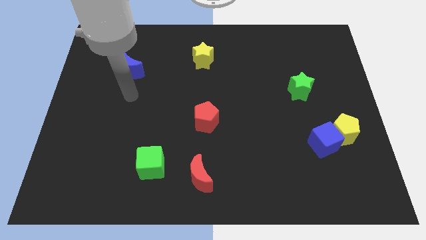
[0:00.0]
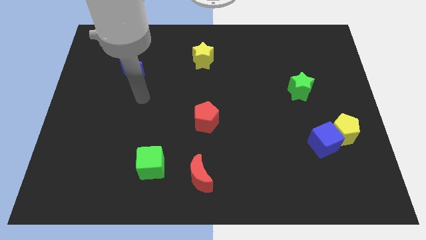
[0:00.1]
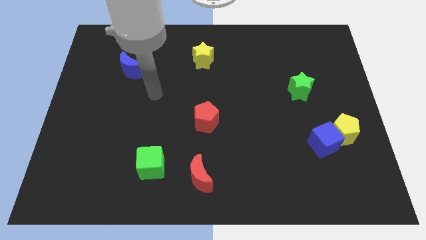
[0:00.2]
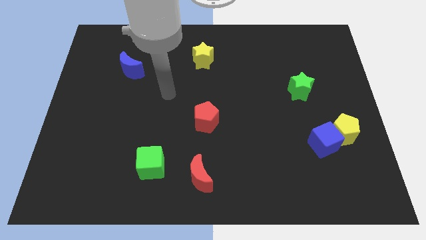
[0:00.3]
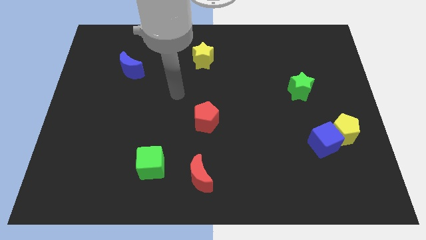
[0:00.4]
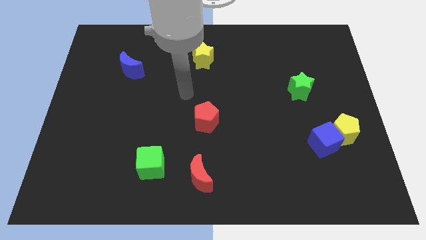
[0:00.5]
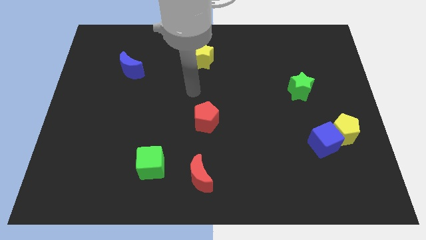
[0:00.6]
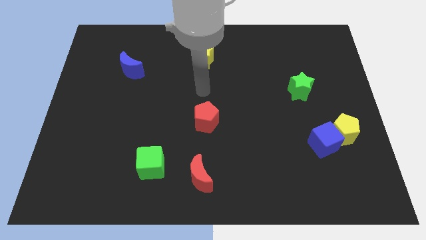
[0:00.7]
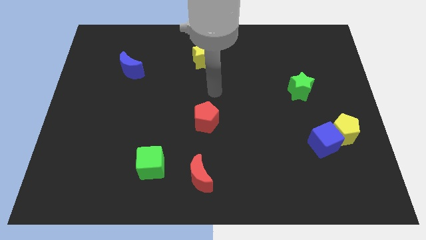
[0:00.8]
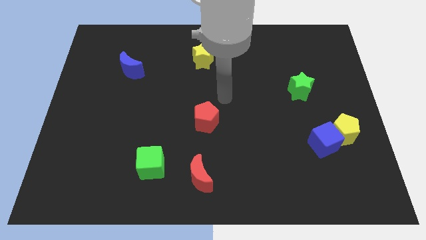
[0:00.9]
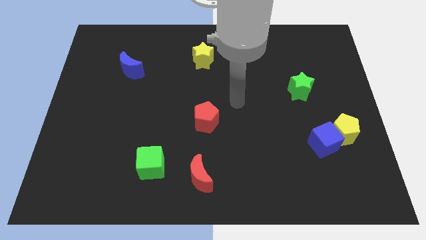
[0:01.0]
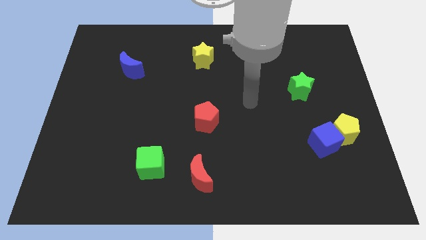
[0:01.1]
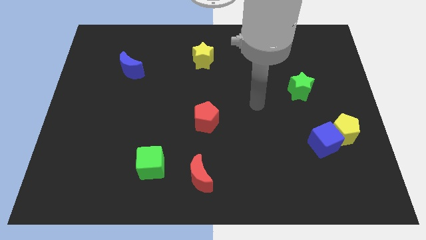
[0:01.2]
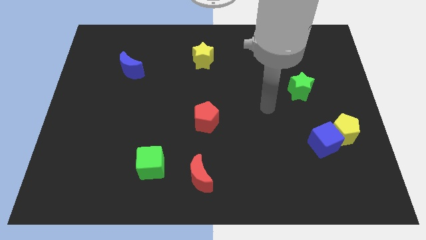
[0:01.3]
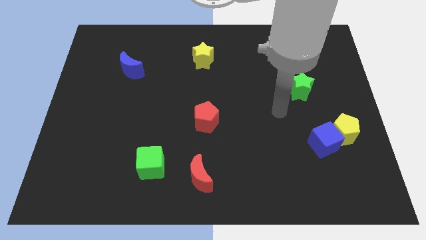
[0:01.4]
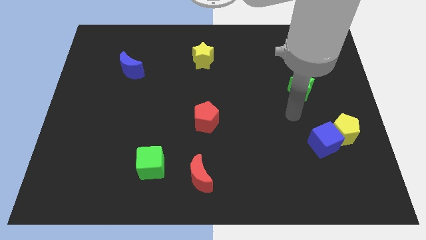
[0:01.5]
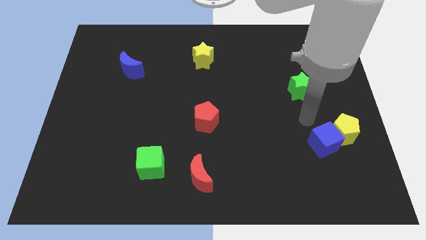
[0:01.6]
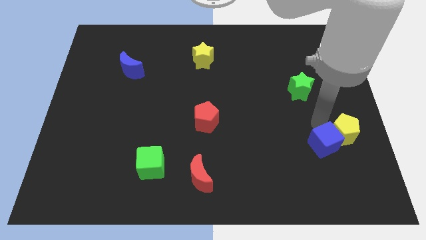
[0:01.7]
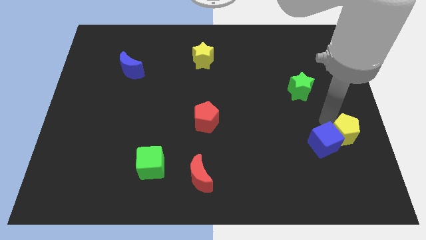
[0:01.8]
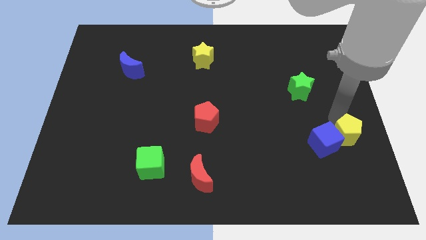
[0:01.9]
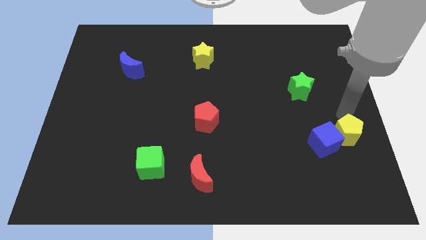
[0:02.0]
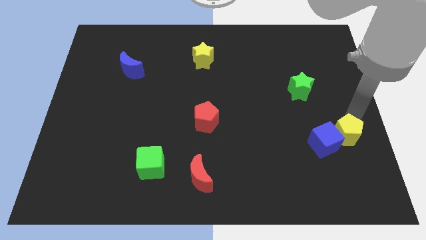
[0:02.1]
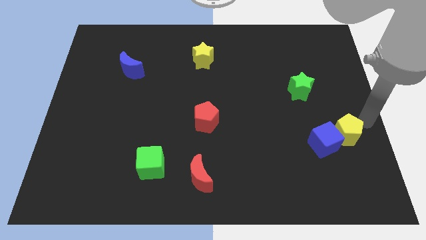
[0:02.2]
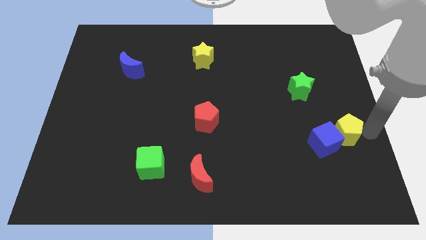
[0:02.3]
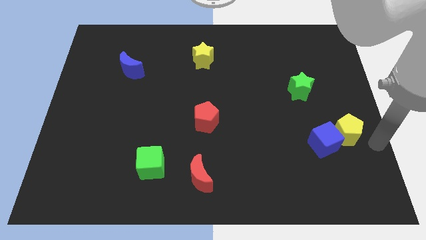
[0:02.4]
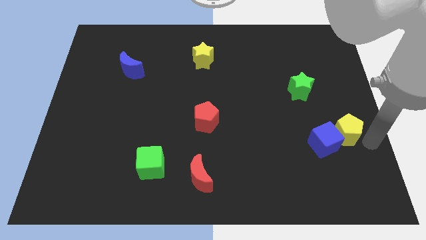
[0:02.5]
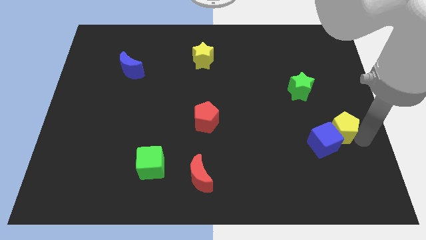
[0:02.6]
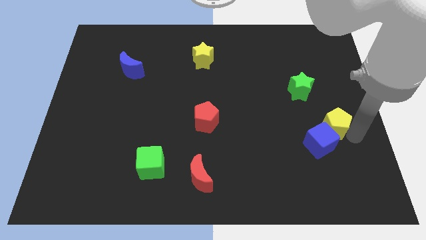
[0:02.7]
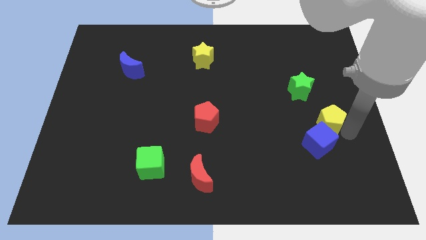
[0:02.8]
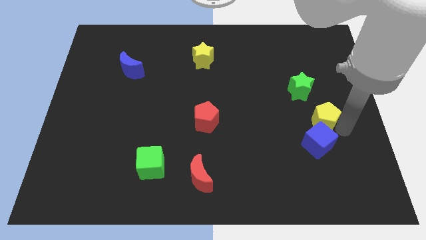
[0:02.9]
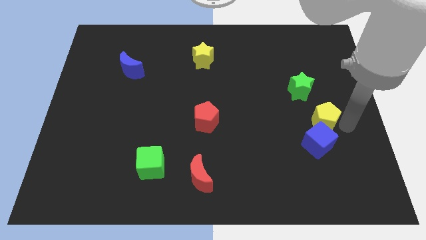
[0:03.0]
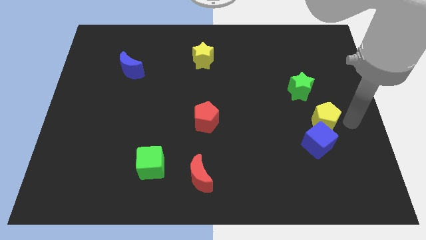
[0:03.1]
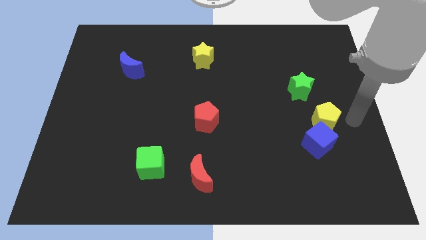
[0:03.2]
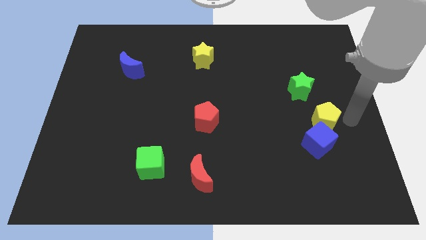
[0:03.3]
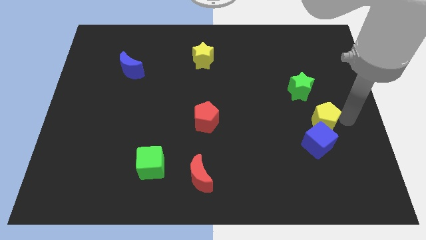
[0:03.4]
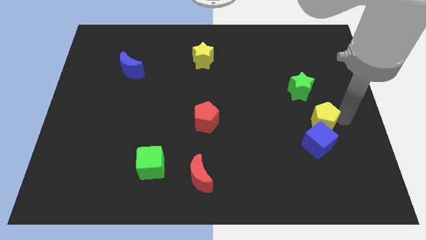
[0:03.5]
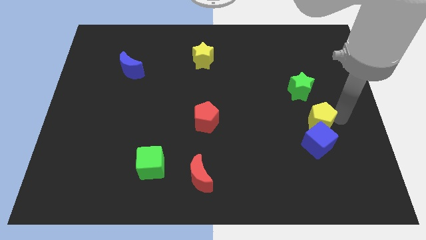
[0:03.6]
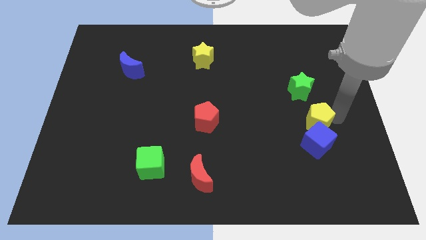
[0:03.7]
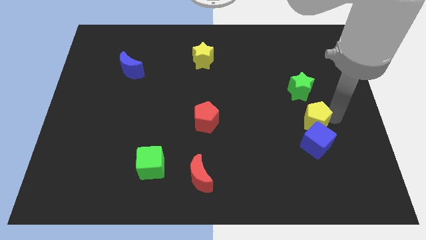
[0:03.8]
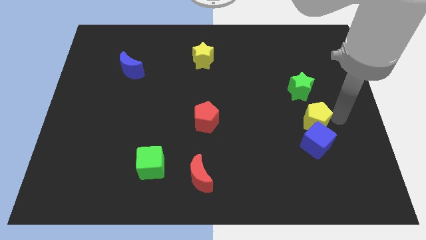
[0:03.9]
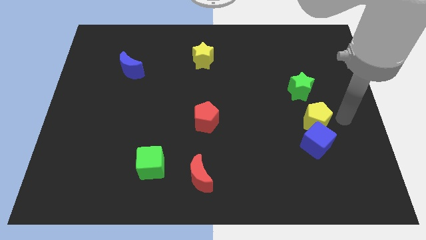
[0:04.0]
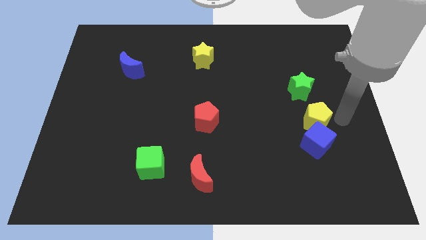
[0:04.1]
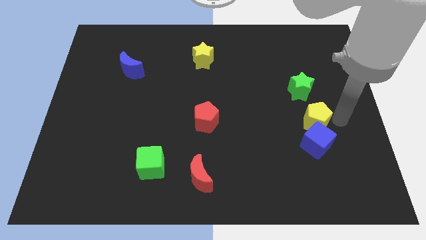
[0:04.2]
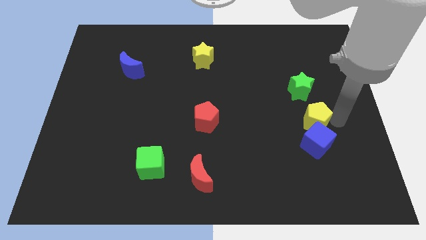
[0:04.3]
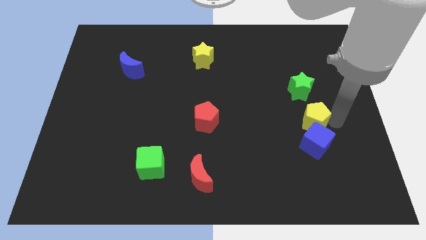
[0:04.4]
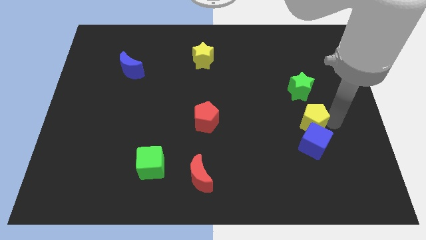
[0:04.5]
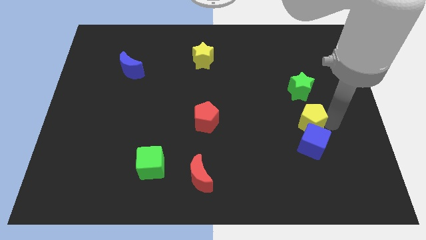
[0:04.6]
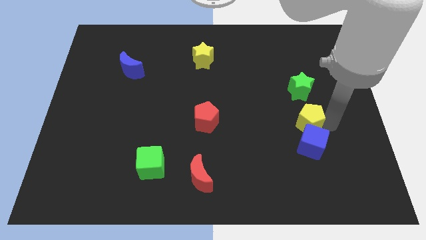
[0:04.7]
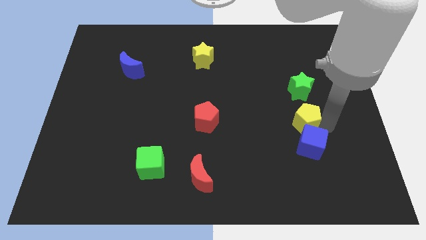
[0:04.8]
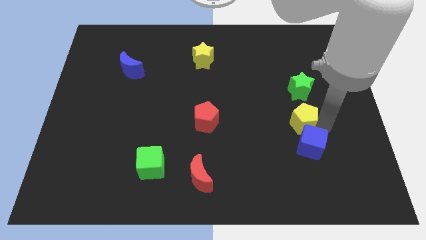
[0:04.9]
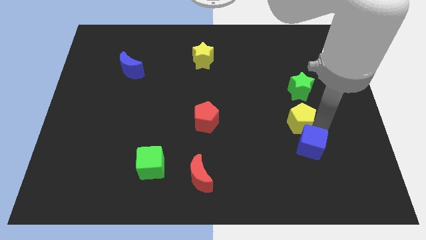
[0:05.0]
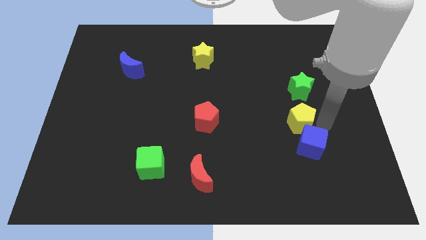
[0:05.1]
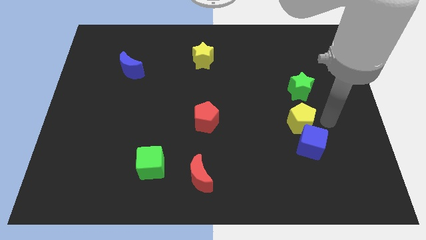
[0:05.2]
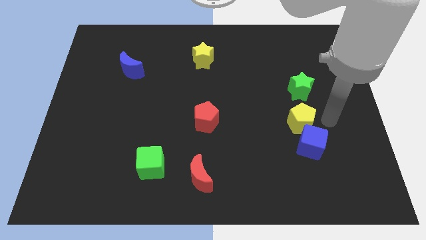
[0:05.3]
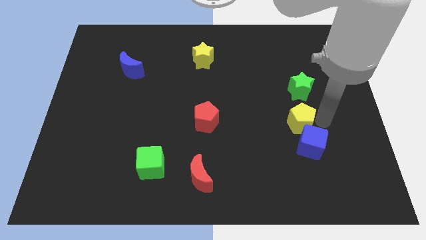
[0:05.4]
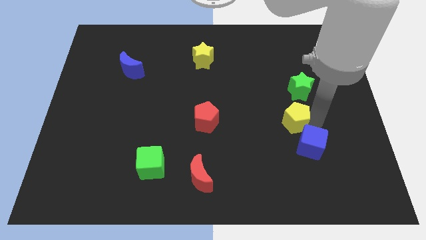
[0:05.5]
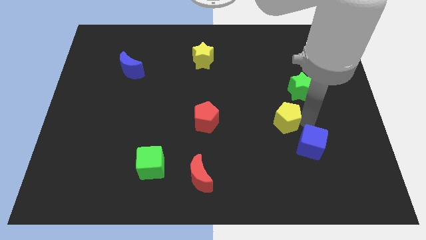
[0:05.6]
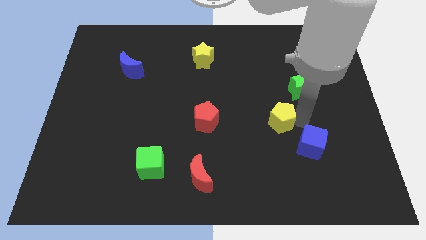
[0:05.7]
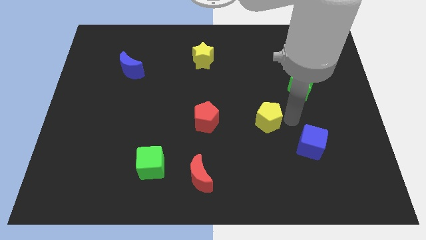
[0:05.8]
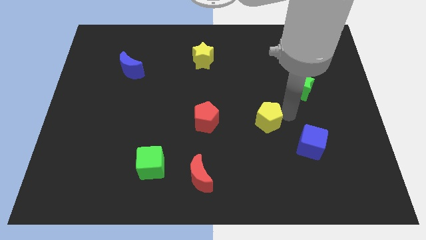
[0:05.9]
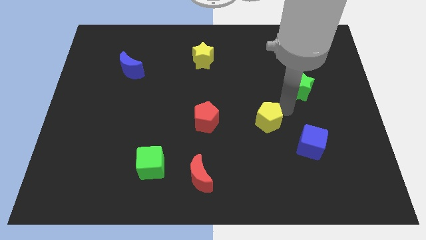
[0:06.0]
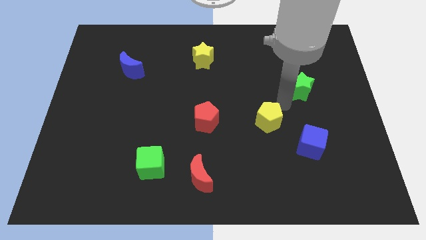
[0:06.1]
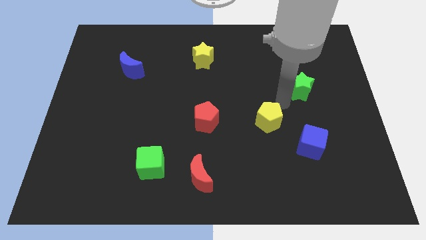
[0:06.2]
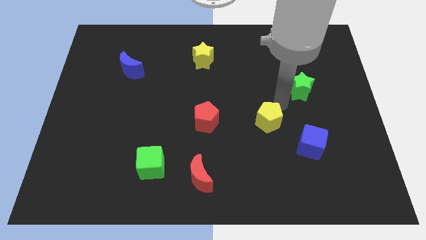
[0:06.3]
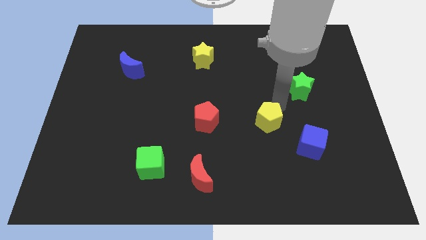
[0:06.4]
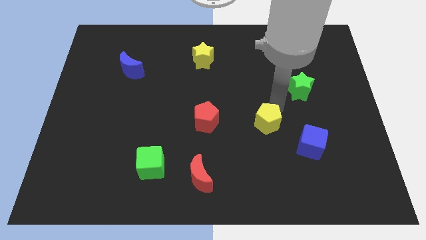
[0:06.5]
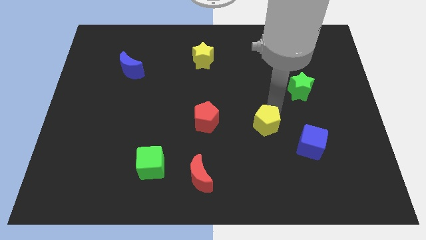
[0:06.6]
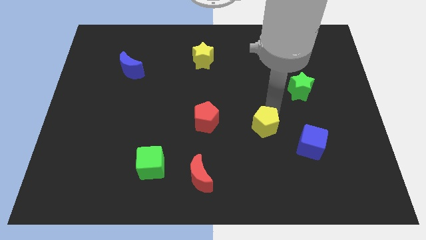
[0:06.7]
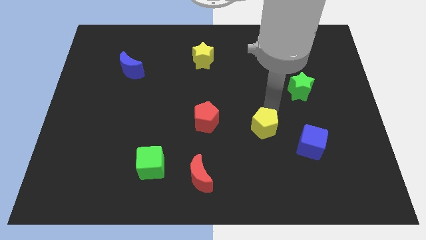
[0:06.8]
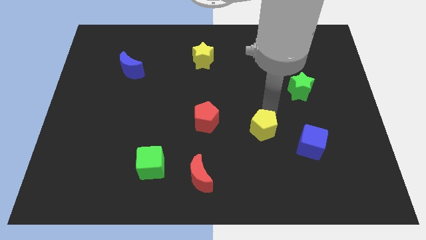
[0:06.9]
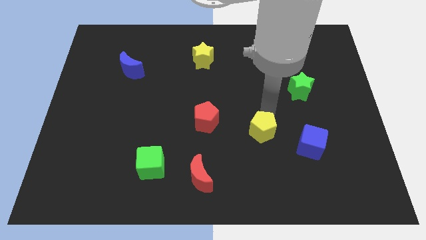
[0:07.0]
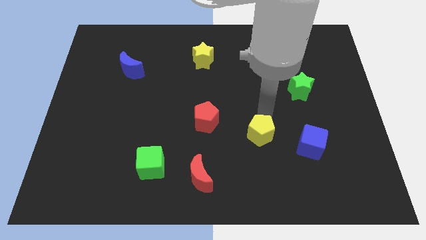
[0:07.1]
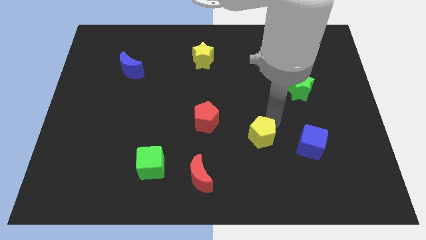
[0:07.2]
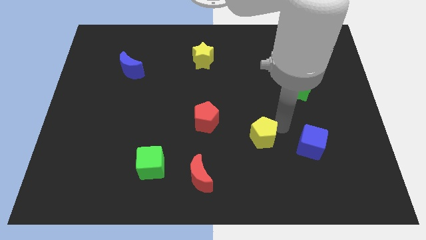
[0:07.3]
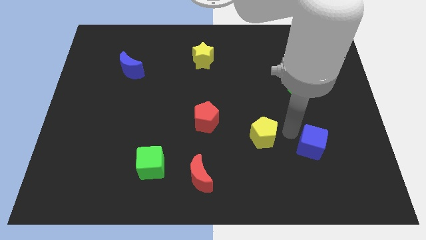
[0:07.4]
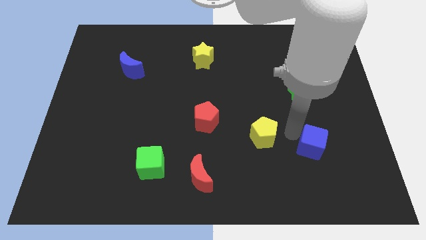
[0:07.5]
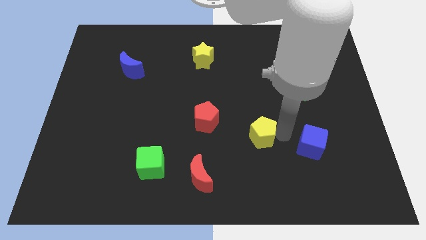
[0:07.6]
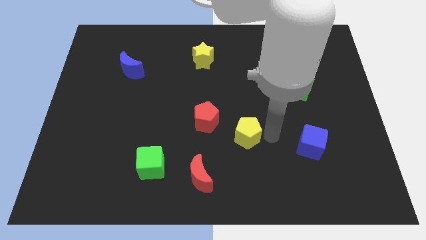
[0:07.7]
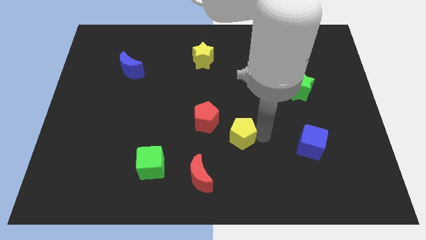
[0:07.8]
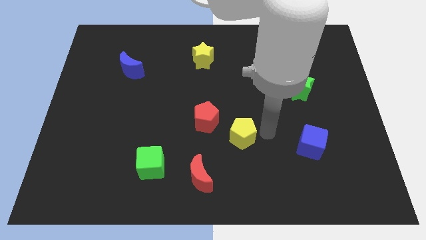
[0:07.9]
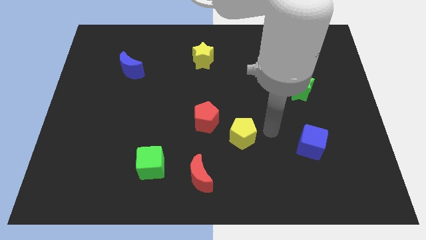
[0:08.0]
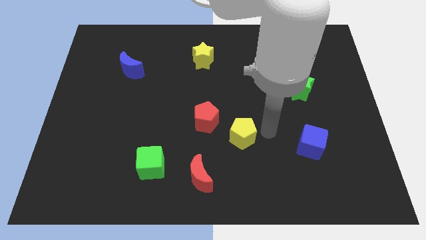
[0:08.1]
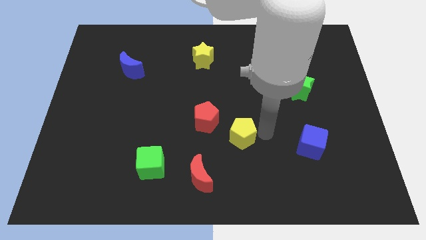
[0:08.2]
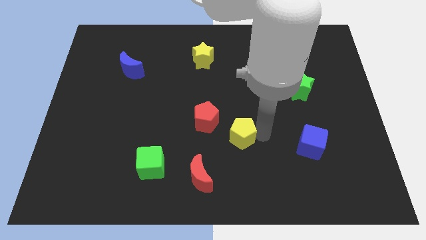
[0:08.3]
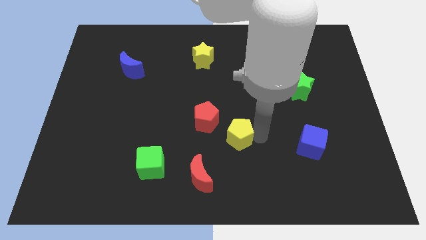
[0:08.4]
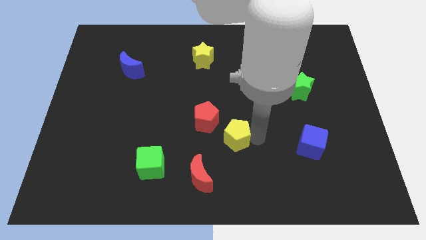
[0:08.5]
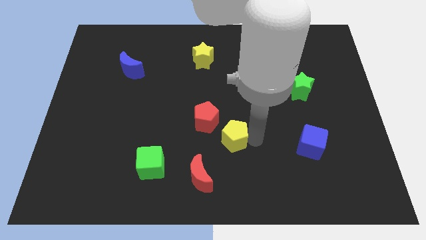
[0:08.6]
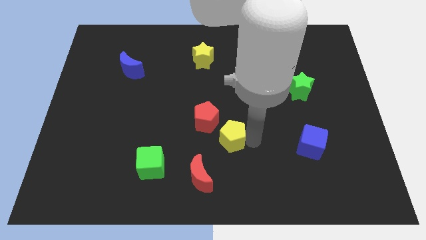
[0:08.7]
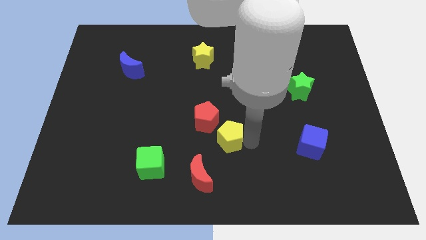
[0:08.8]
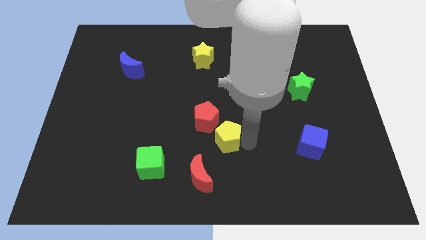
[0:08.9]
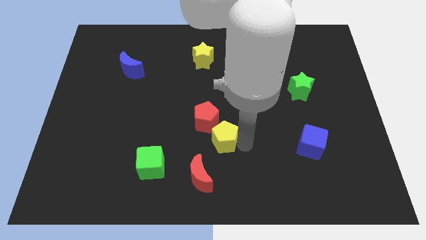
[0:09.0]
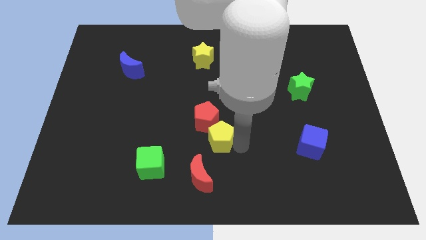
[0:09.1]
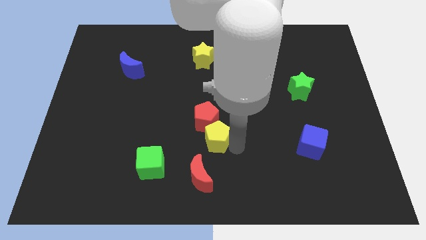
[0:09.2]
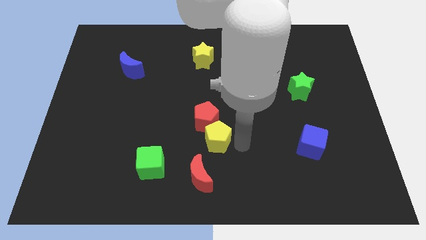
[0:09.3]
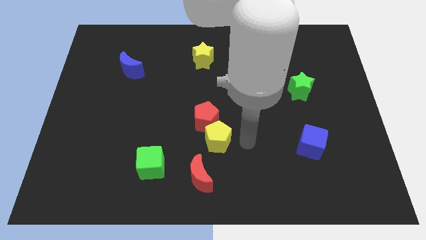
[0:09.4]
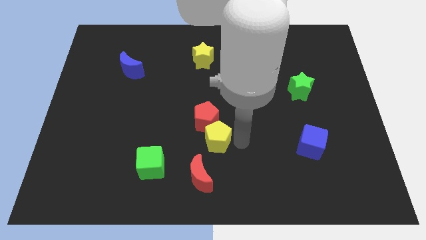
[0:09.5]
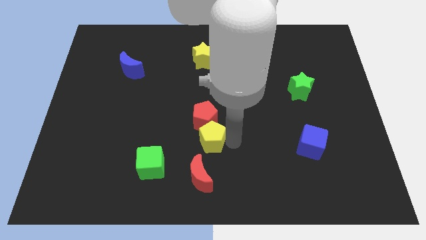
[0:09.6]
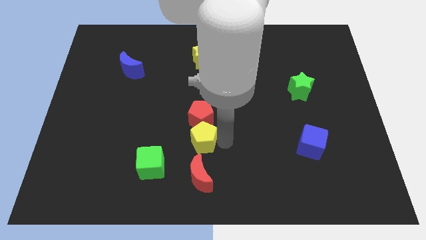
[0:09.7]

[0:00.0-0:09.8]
move the yellow pentagon diagonally down and to the left of the red pentagon
